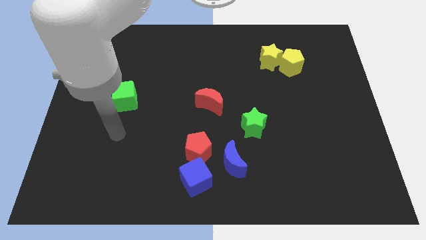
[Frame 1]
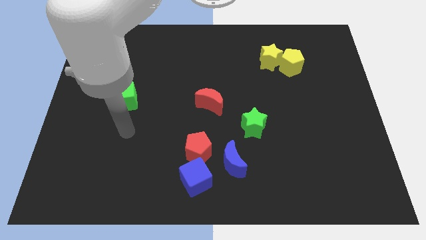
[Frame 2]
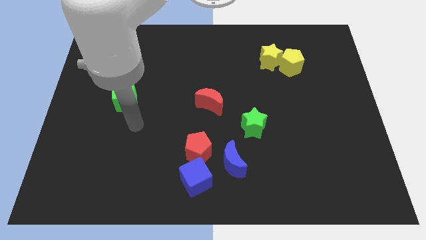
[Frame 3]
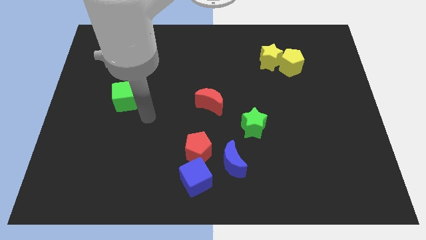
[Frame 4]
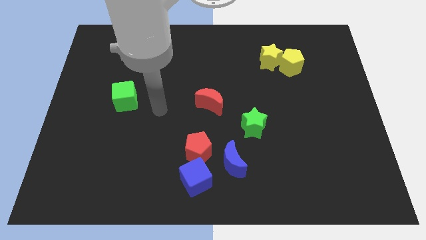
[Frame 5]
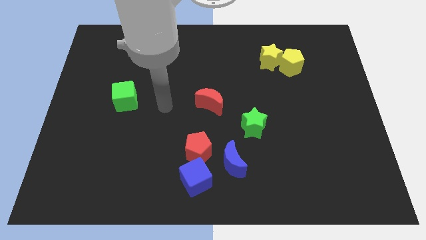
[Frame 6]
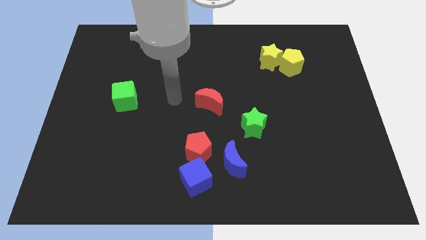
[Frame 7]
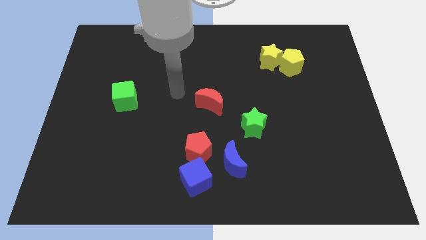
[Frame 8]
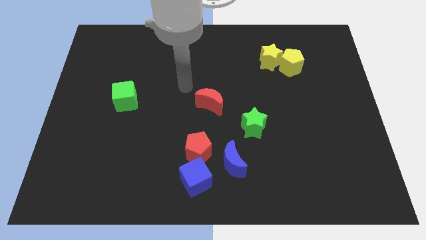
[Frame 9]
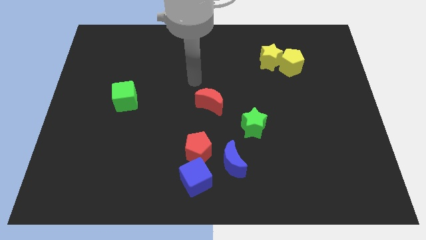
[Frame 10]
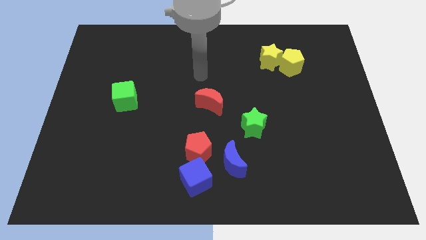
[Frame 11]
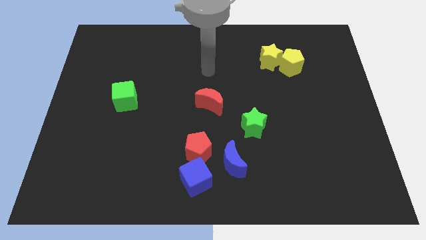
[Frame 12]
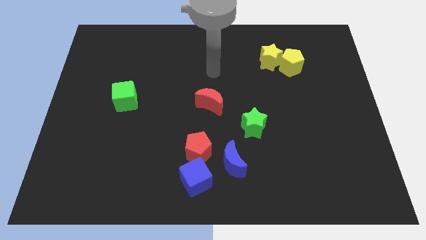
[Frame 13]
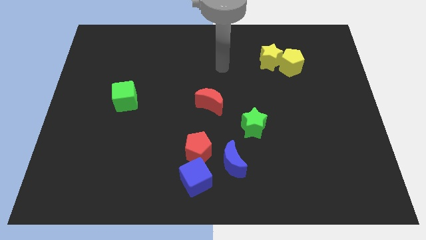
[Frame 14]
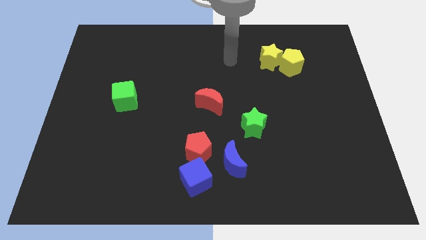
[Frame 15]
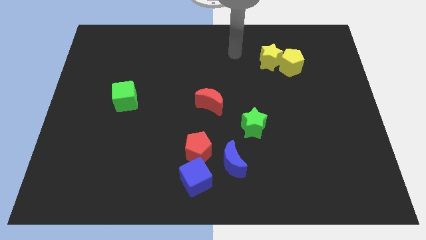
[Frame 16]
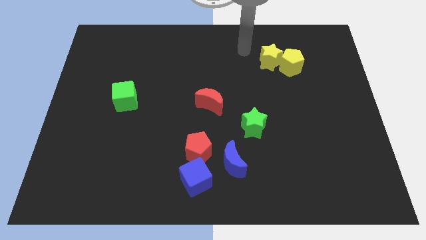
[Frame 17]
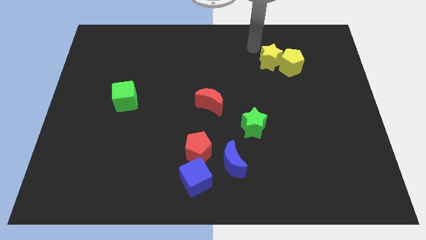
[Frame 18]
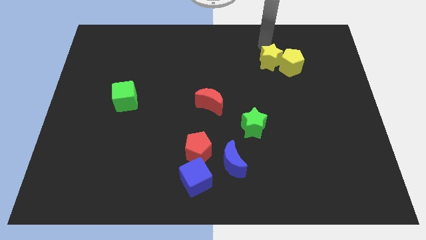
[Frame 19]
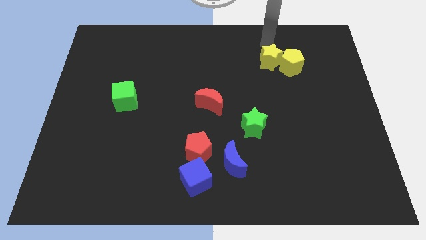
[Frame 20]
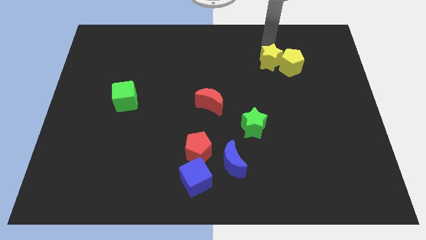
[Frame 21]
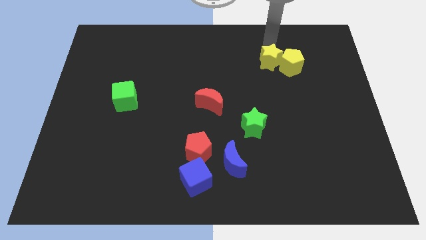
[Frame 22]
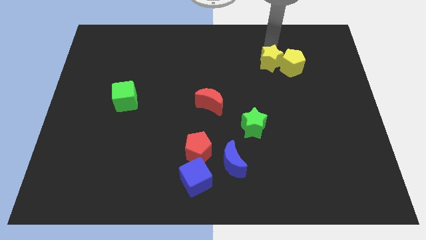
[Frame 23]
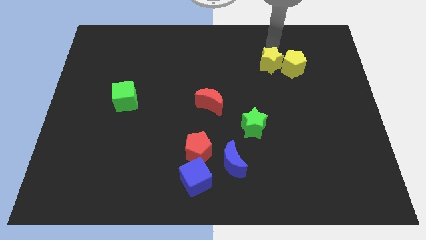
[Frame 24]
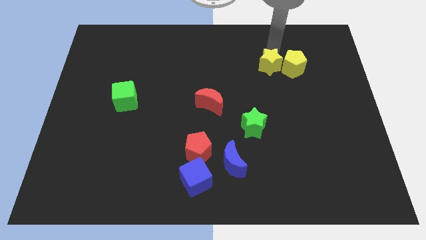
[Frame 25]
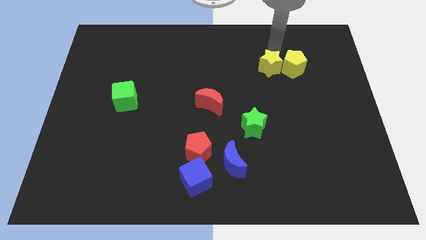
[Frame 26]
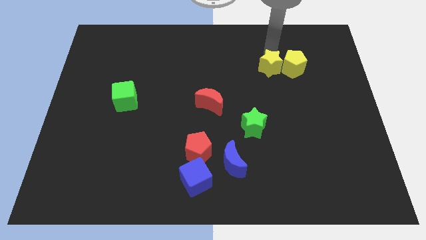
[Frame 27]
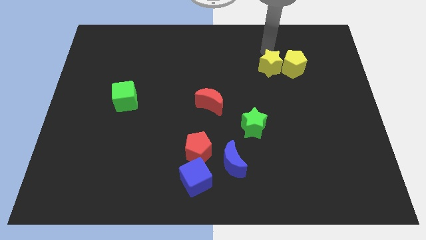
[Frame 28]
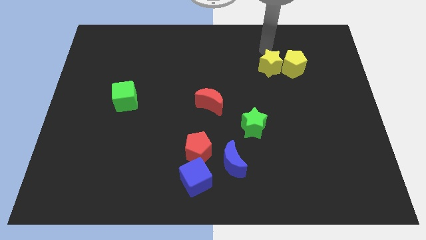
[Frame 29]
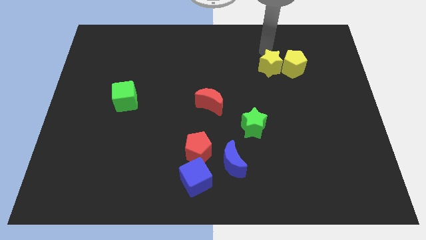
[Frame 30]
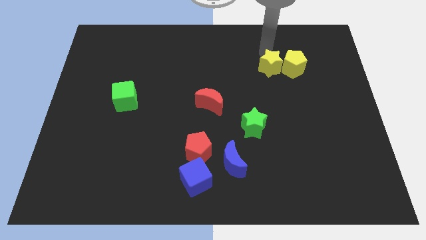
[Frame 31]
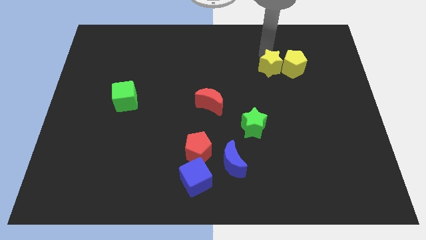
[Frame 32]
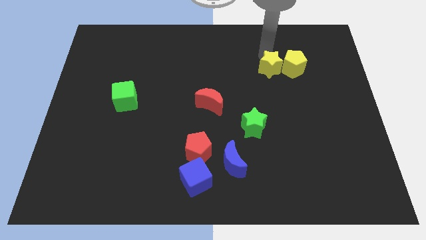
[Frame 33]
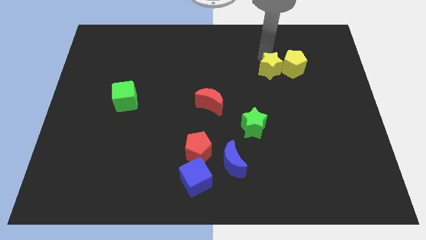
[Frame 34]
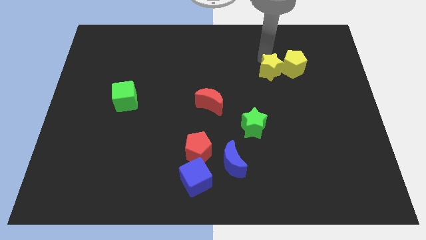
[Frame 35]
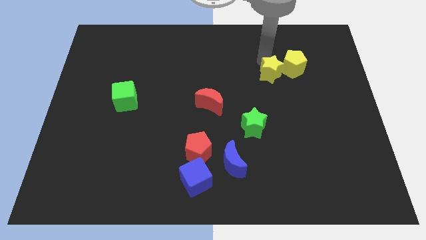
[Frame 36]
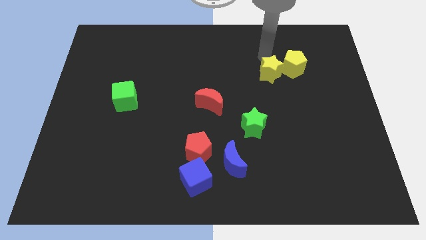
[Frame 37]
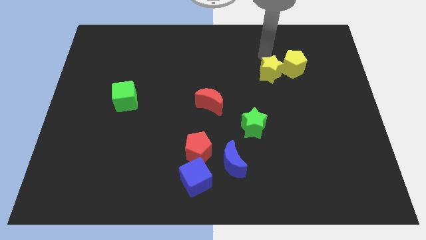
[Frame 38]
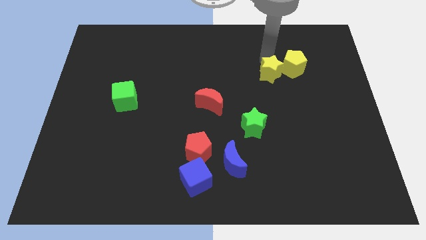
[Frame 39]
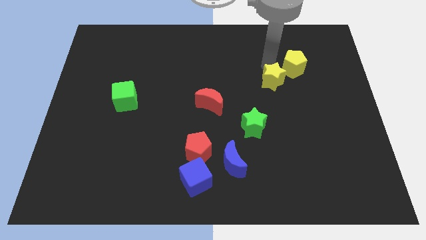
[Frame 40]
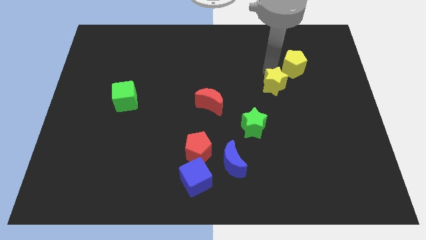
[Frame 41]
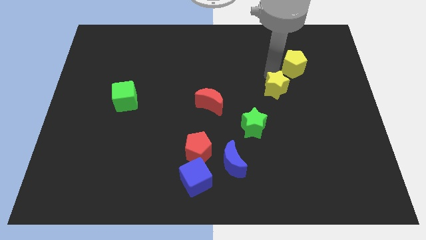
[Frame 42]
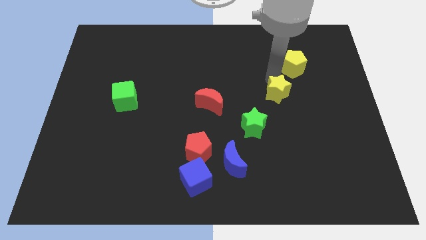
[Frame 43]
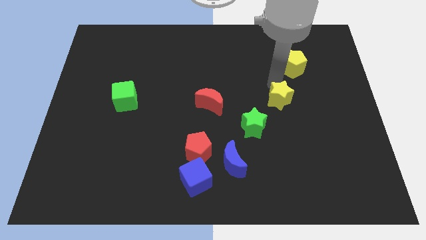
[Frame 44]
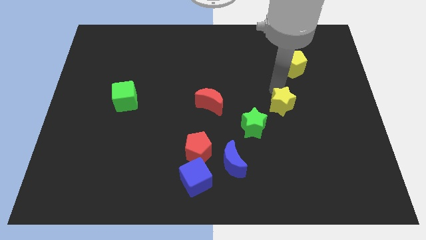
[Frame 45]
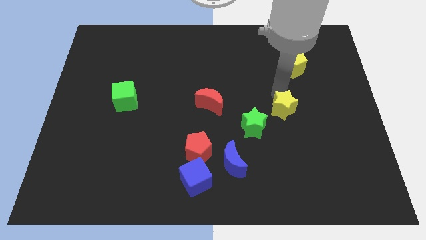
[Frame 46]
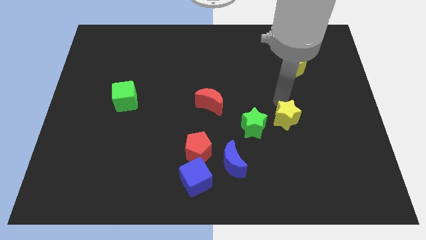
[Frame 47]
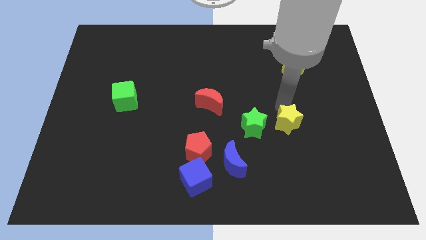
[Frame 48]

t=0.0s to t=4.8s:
move the yellow star down

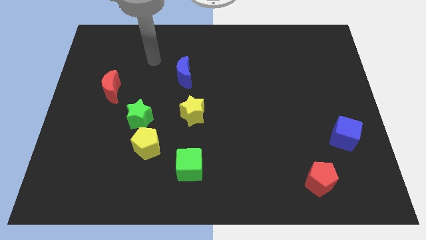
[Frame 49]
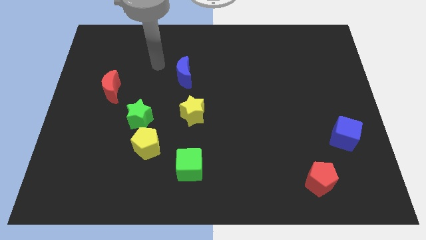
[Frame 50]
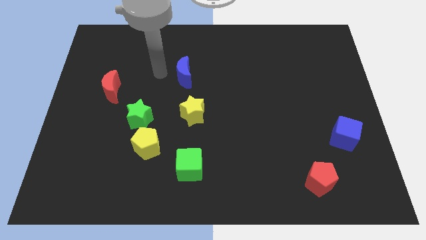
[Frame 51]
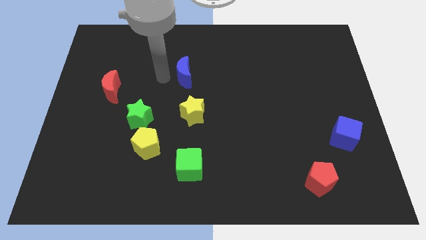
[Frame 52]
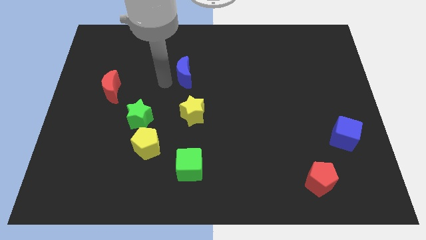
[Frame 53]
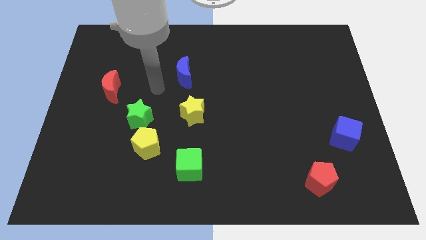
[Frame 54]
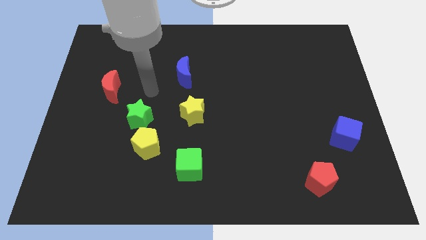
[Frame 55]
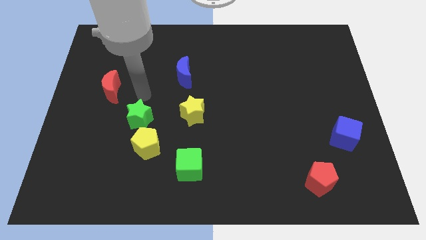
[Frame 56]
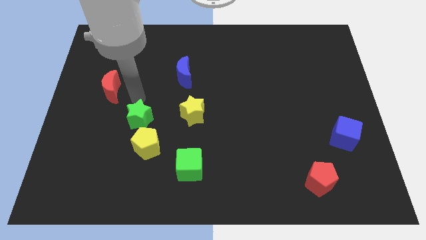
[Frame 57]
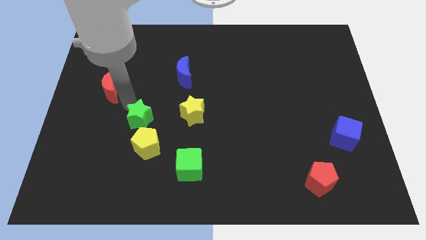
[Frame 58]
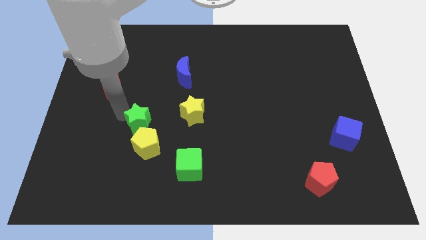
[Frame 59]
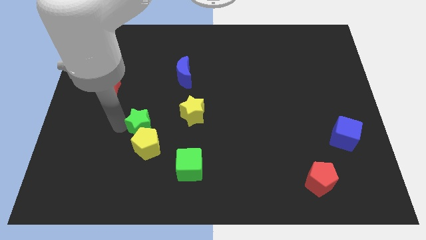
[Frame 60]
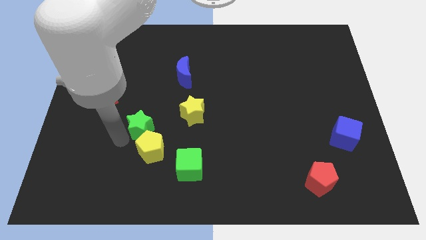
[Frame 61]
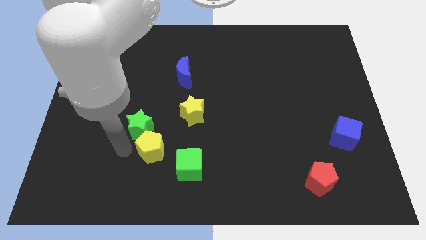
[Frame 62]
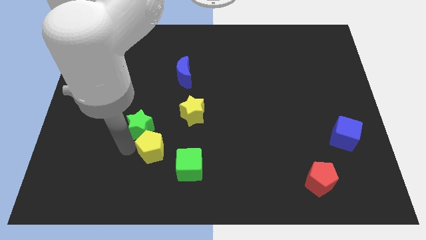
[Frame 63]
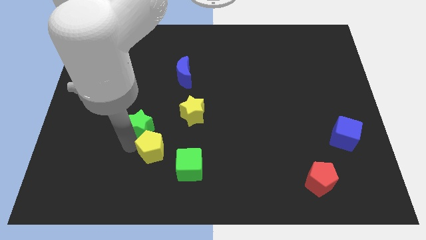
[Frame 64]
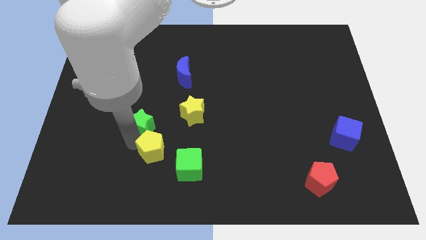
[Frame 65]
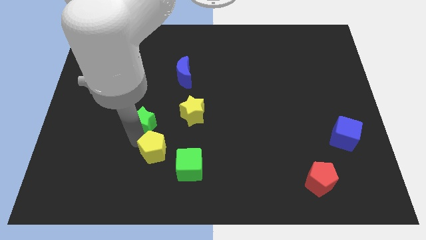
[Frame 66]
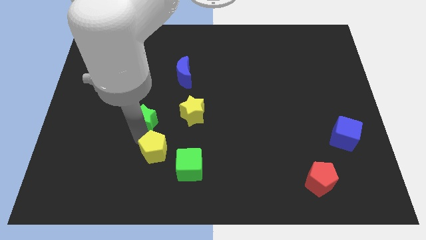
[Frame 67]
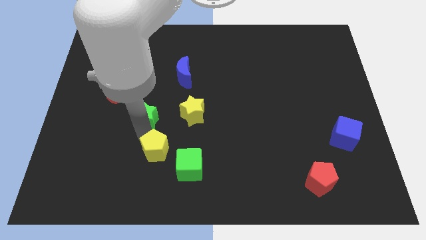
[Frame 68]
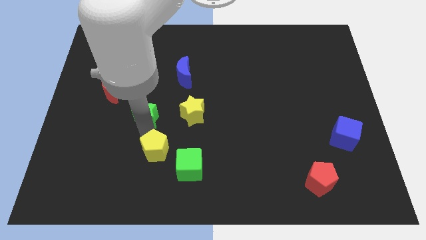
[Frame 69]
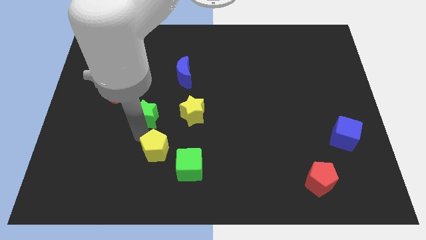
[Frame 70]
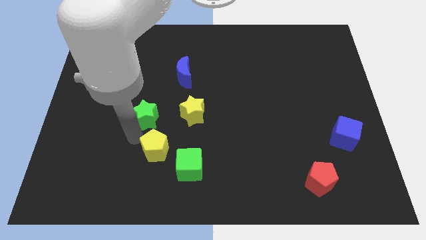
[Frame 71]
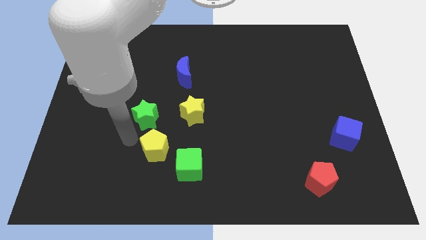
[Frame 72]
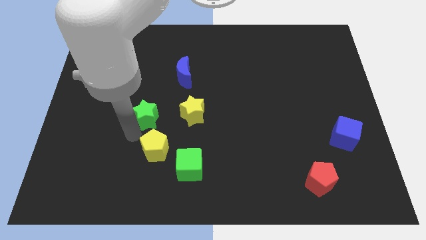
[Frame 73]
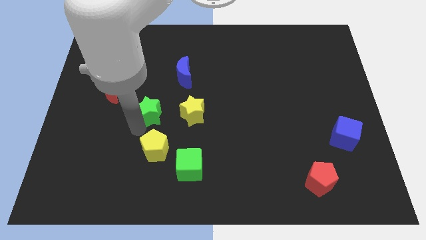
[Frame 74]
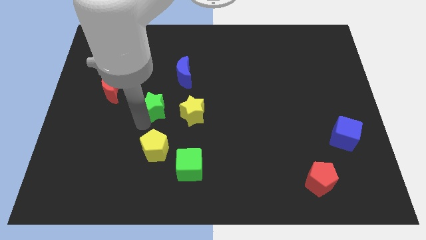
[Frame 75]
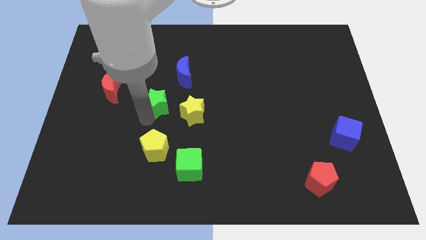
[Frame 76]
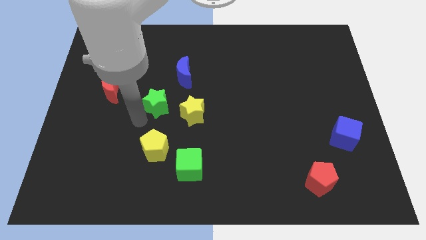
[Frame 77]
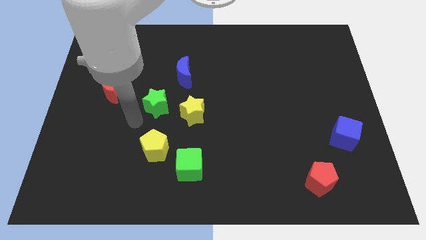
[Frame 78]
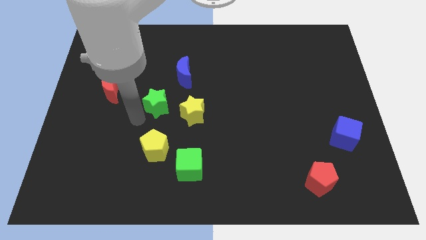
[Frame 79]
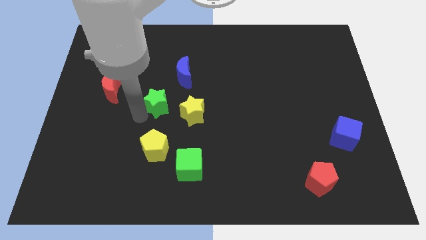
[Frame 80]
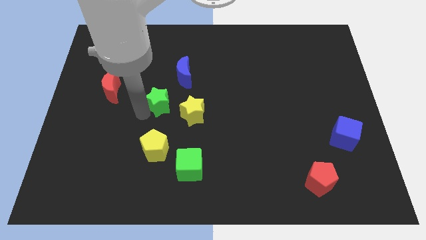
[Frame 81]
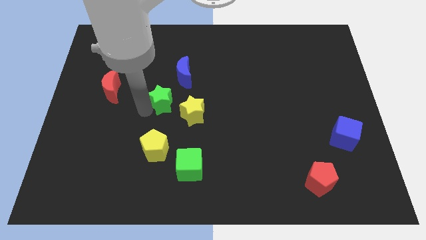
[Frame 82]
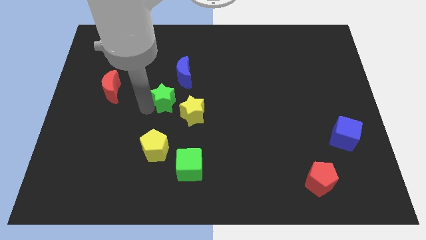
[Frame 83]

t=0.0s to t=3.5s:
push the green star a bit up and to the right
